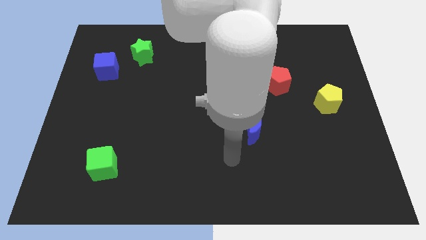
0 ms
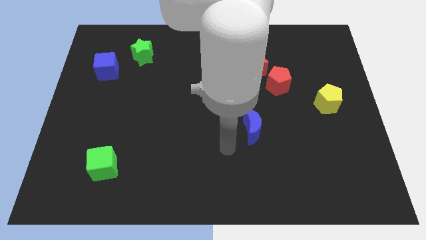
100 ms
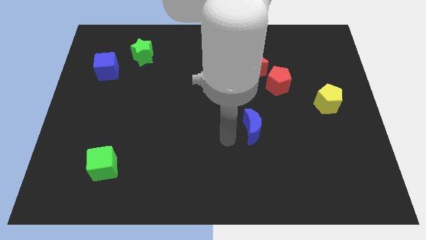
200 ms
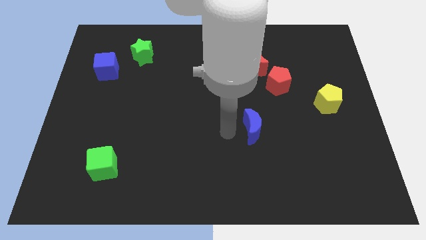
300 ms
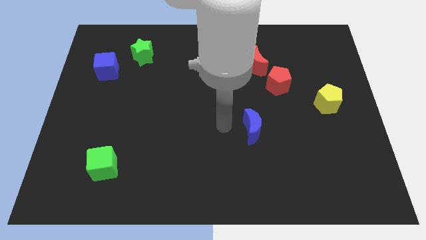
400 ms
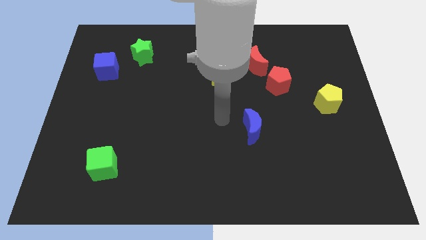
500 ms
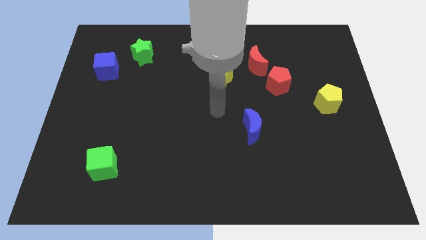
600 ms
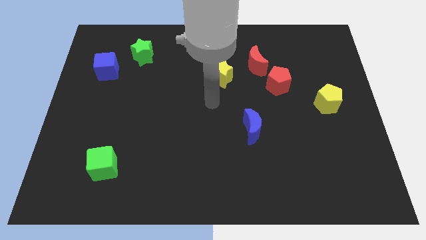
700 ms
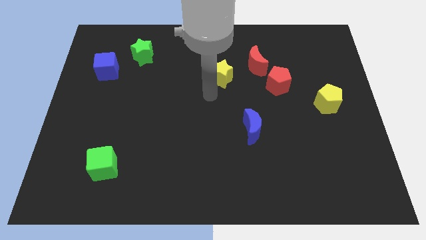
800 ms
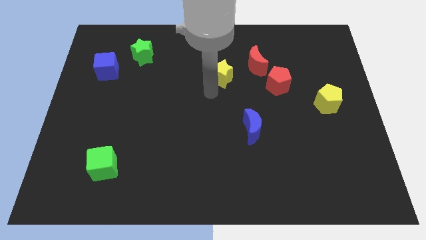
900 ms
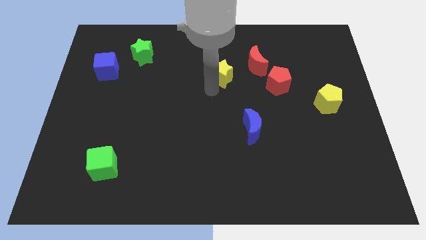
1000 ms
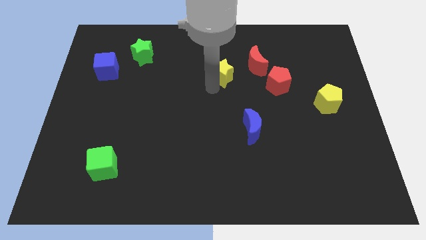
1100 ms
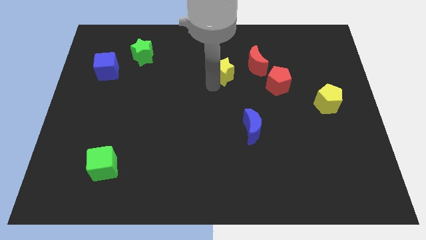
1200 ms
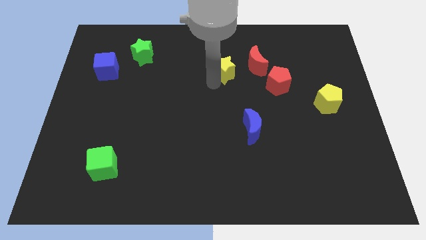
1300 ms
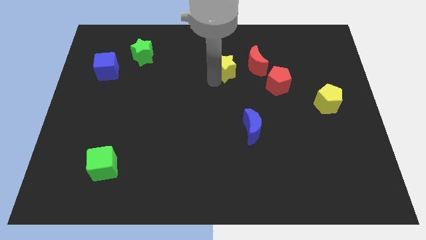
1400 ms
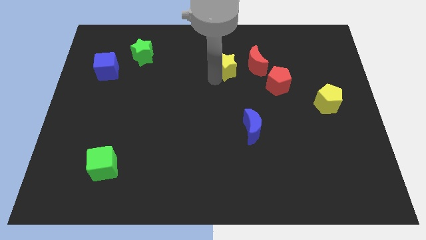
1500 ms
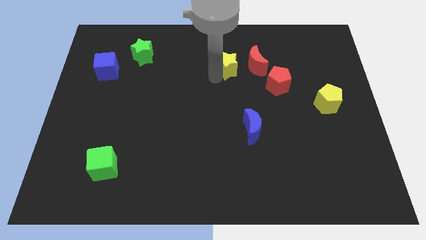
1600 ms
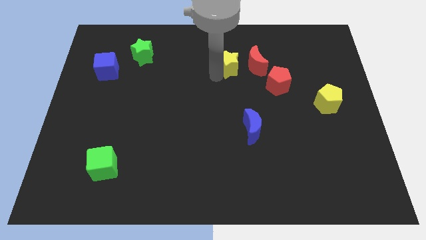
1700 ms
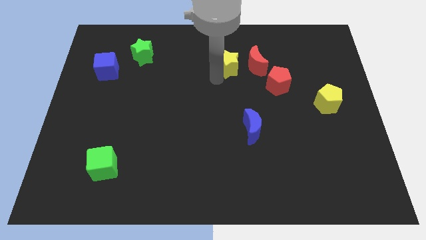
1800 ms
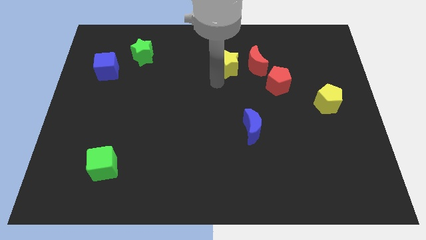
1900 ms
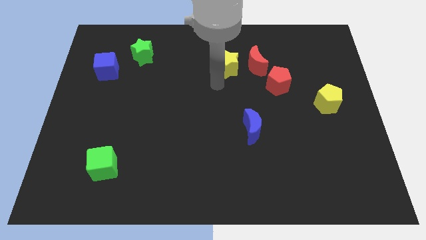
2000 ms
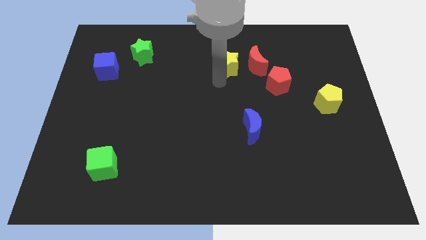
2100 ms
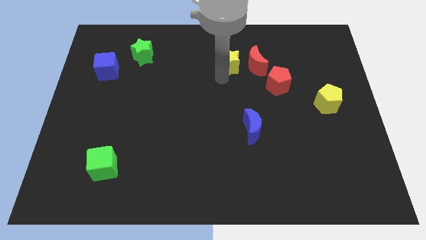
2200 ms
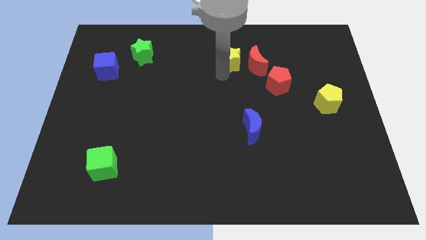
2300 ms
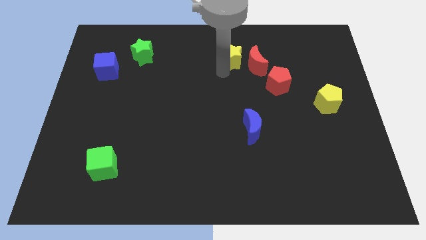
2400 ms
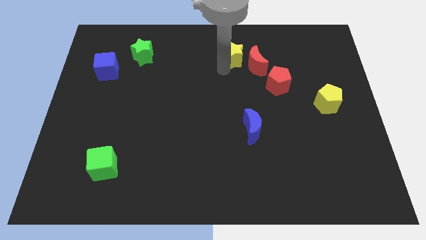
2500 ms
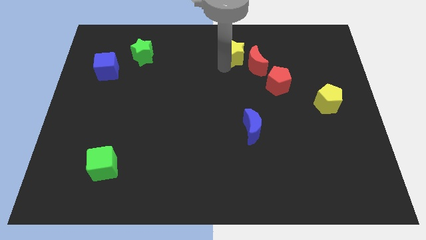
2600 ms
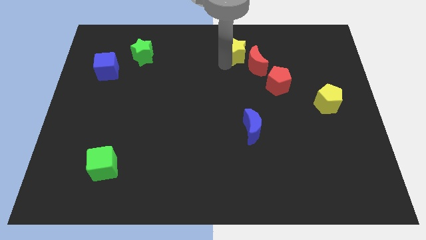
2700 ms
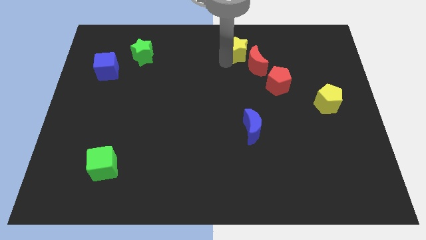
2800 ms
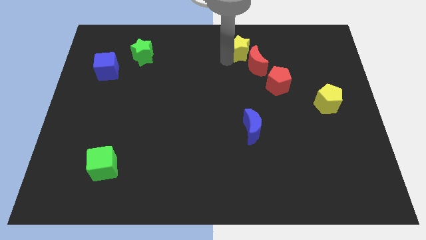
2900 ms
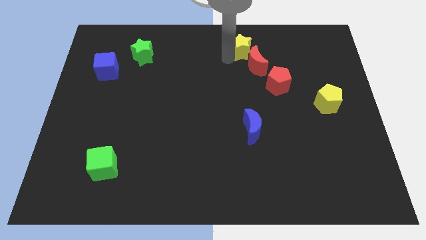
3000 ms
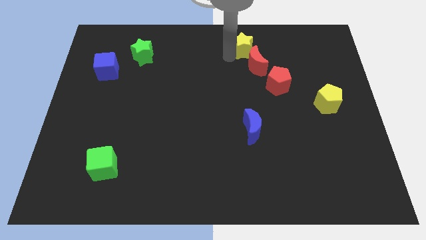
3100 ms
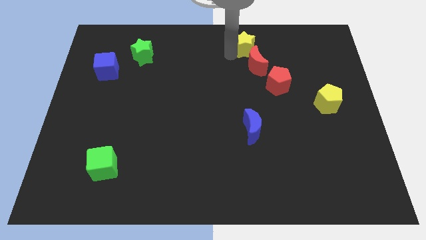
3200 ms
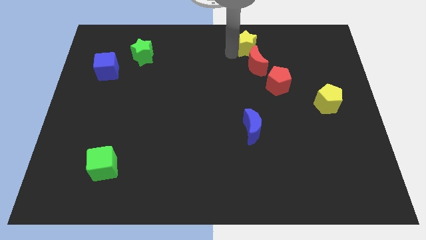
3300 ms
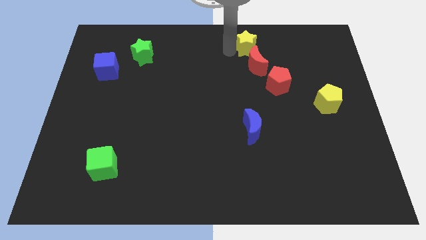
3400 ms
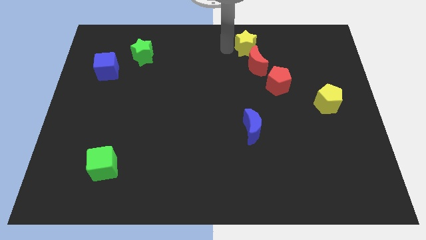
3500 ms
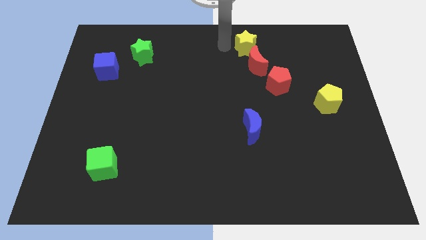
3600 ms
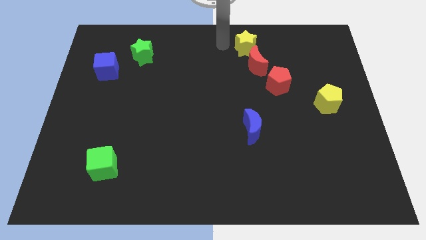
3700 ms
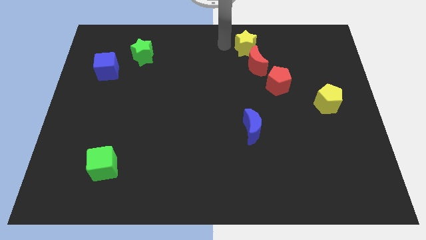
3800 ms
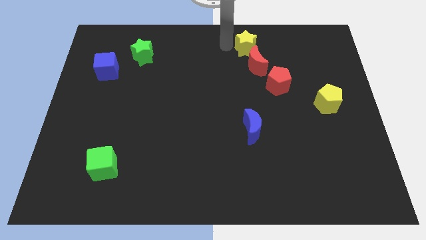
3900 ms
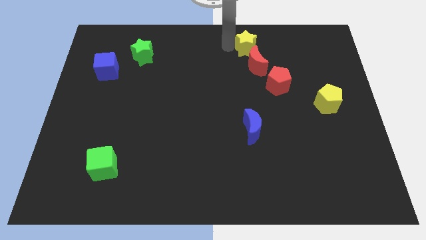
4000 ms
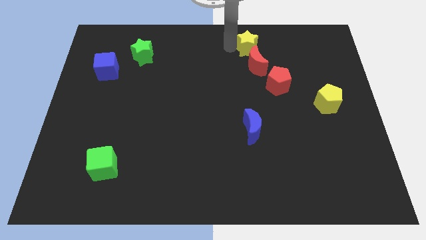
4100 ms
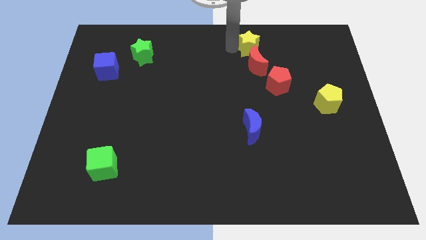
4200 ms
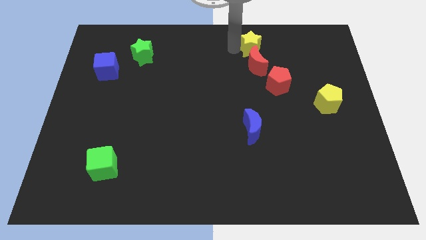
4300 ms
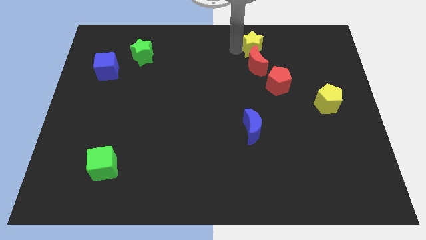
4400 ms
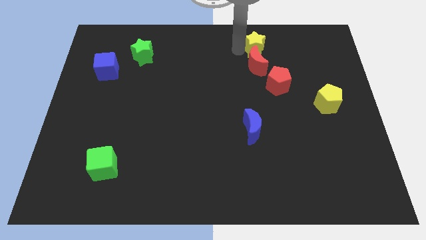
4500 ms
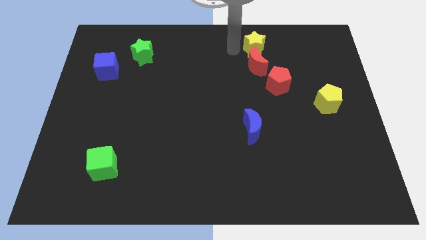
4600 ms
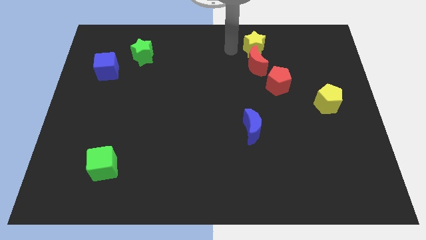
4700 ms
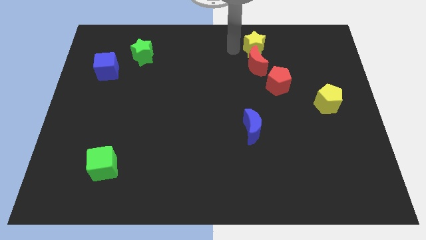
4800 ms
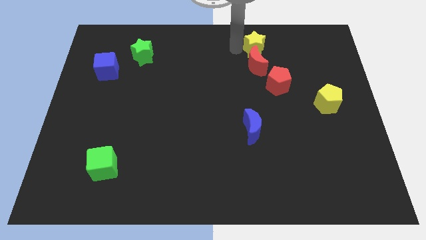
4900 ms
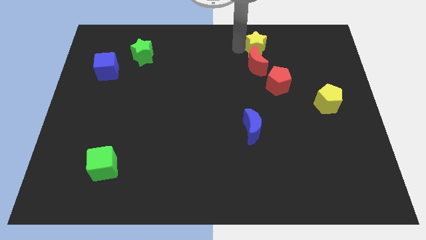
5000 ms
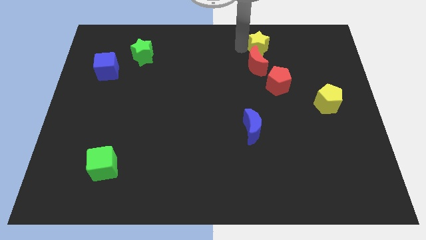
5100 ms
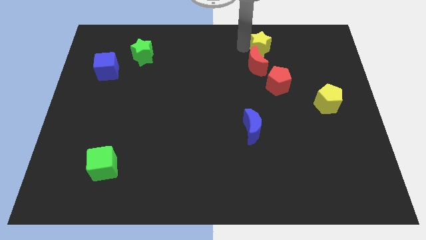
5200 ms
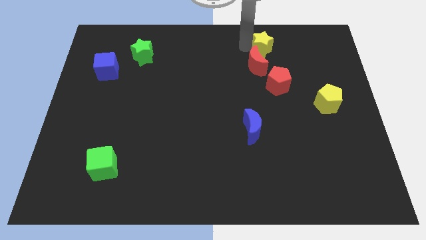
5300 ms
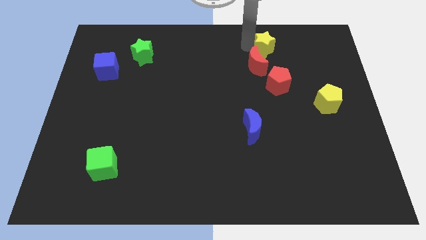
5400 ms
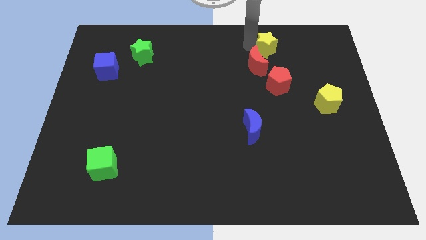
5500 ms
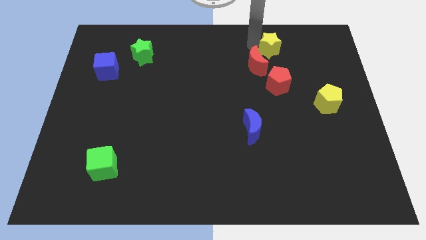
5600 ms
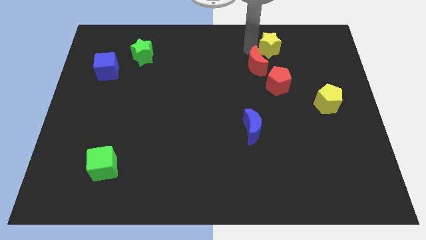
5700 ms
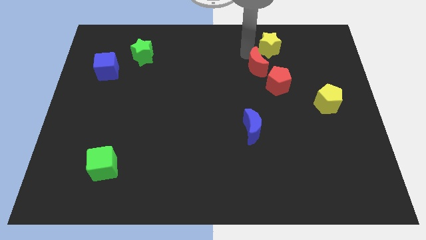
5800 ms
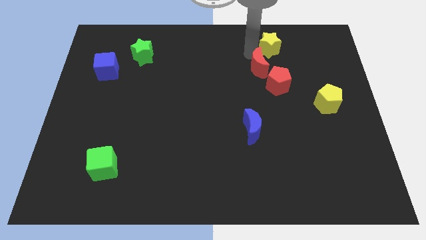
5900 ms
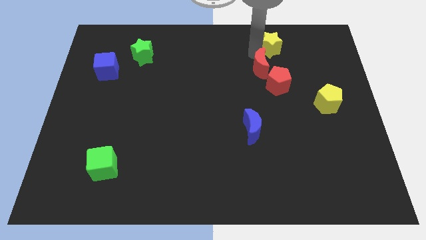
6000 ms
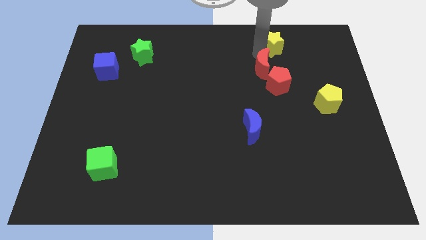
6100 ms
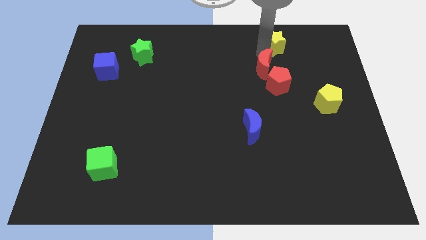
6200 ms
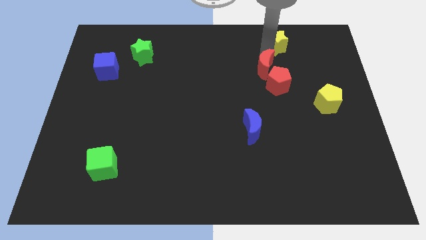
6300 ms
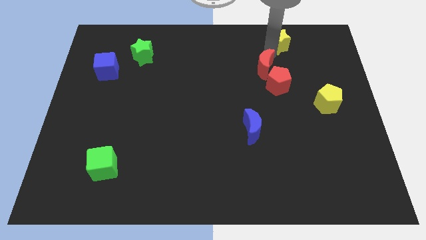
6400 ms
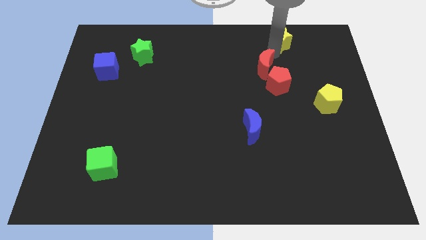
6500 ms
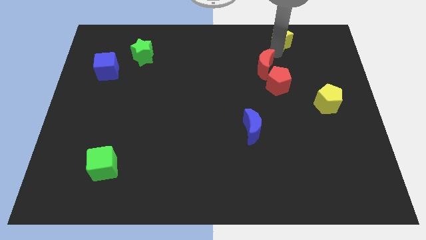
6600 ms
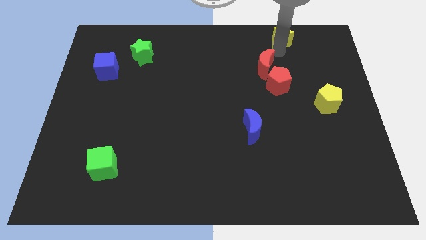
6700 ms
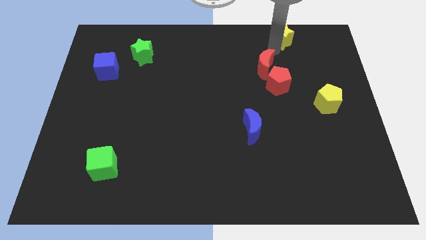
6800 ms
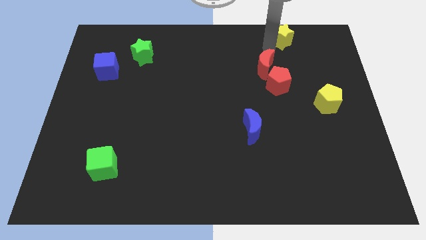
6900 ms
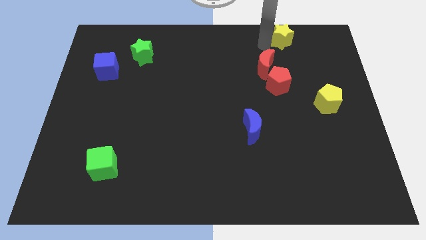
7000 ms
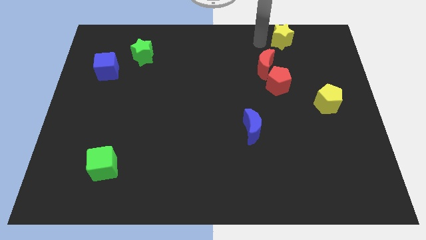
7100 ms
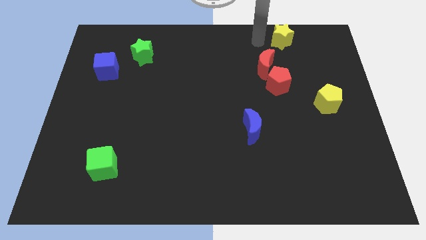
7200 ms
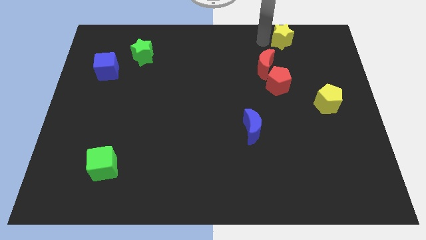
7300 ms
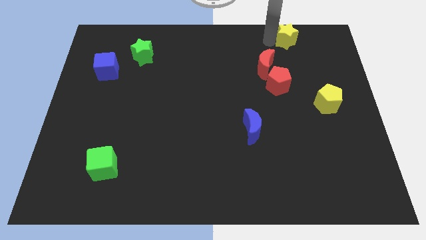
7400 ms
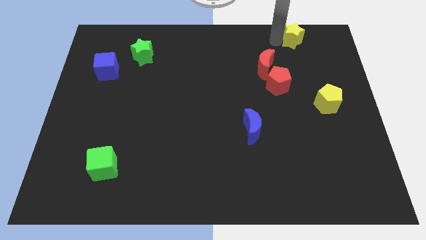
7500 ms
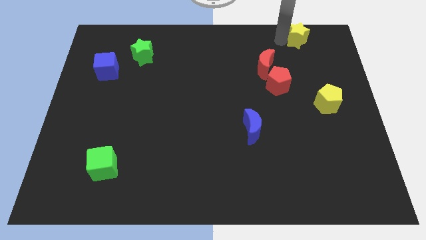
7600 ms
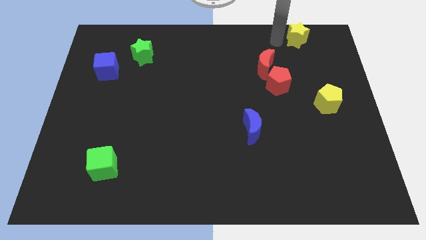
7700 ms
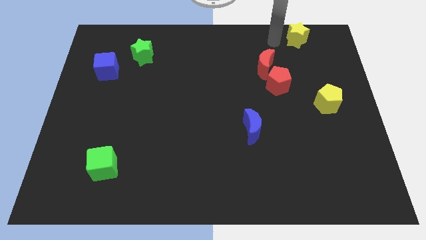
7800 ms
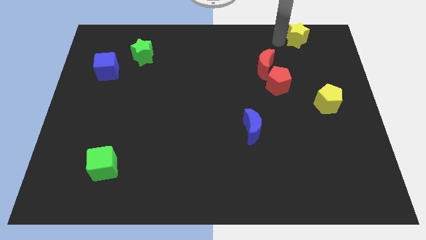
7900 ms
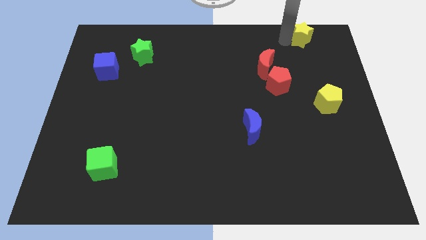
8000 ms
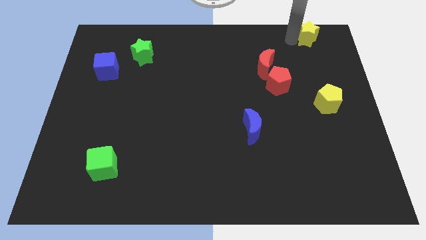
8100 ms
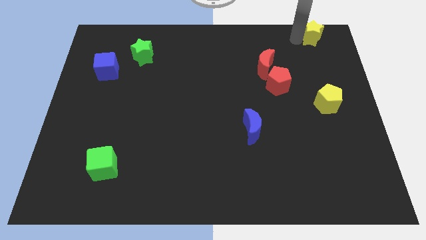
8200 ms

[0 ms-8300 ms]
push the yellow star to the upper right corner
